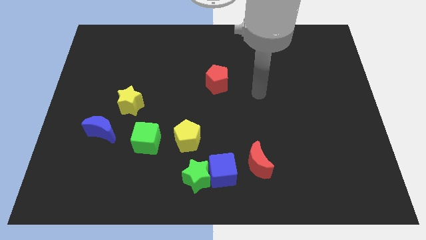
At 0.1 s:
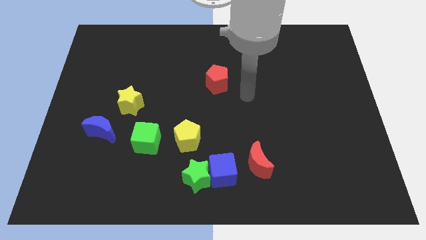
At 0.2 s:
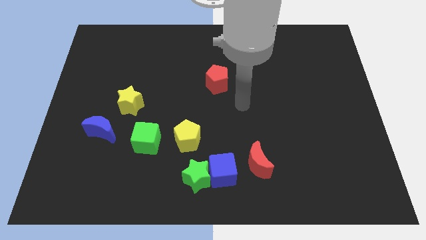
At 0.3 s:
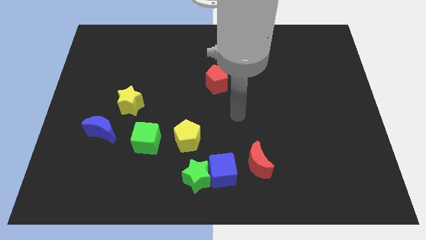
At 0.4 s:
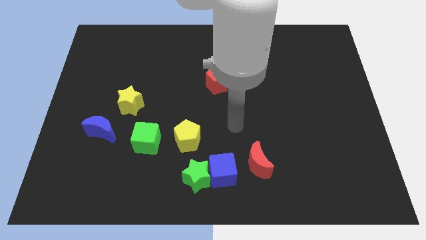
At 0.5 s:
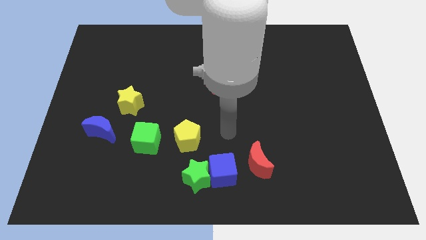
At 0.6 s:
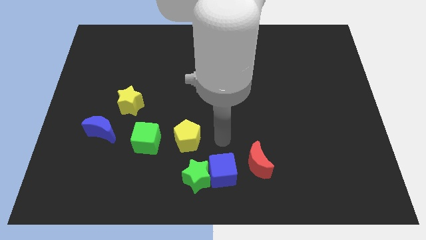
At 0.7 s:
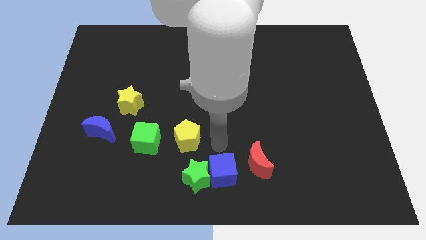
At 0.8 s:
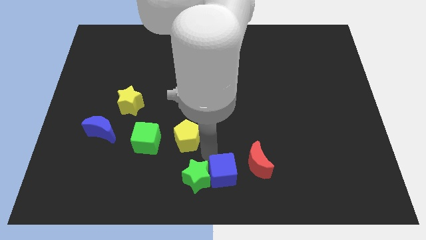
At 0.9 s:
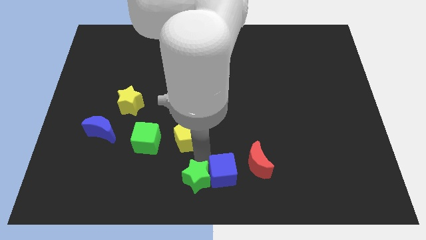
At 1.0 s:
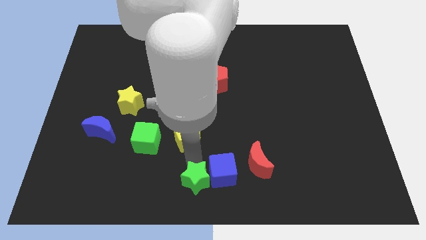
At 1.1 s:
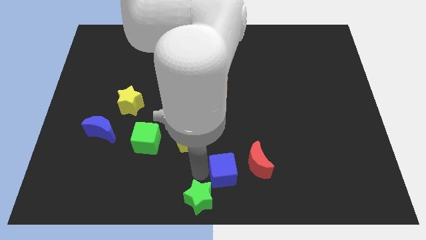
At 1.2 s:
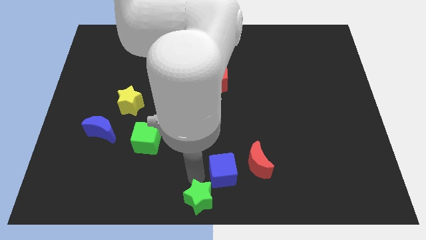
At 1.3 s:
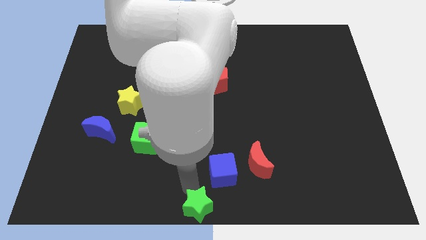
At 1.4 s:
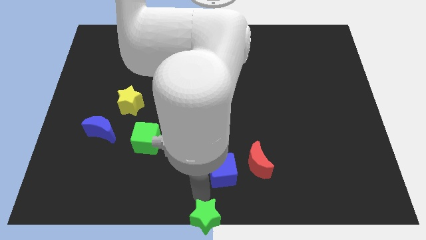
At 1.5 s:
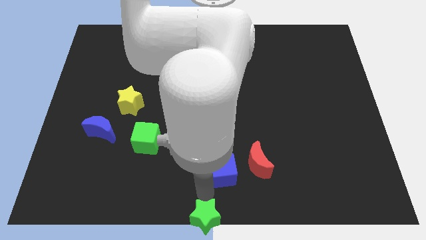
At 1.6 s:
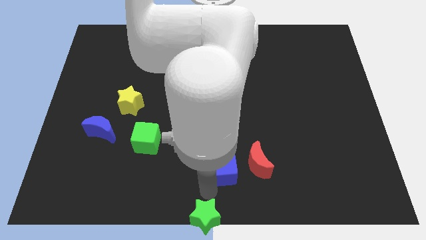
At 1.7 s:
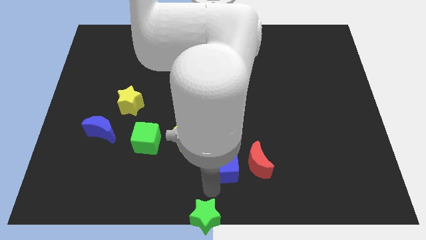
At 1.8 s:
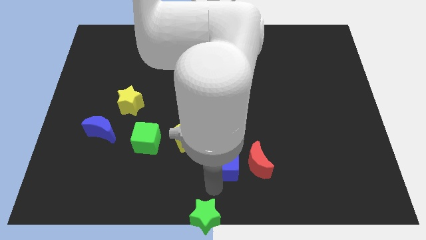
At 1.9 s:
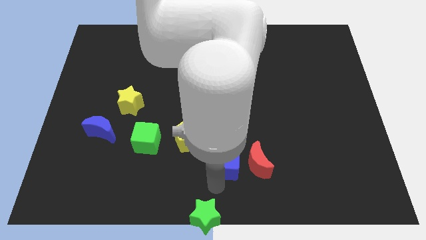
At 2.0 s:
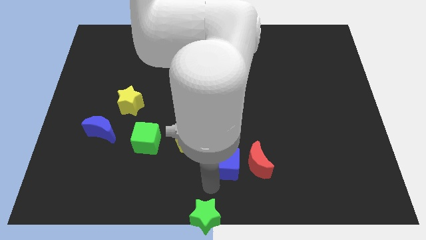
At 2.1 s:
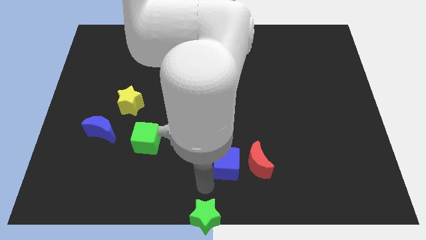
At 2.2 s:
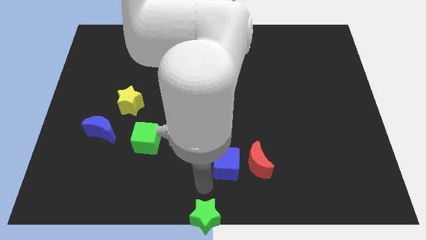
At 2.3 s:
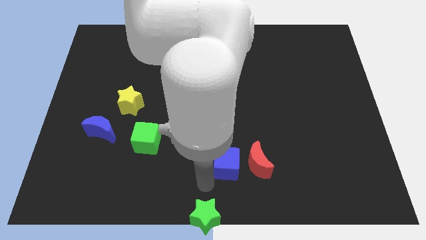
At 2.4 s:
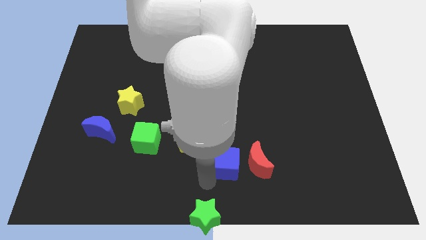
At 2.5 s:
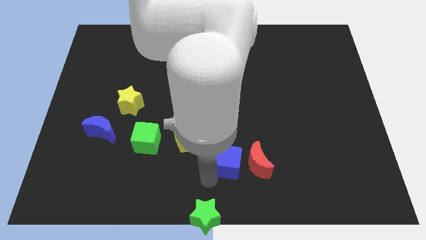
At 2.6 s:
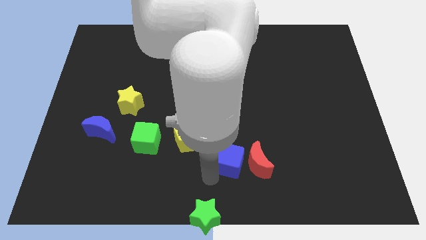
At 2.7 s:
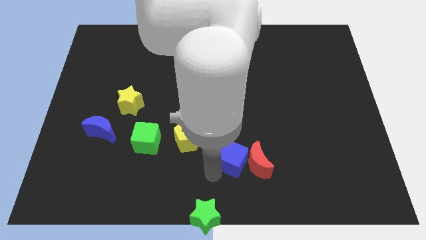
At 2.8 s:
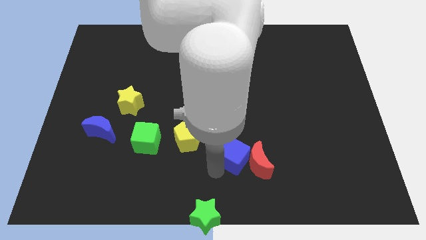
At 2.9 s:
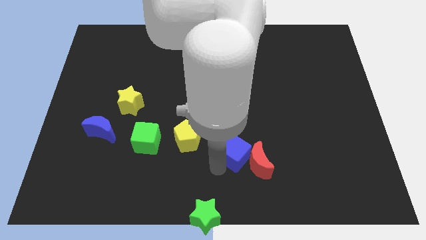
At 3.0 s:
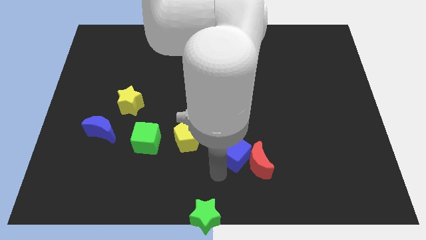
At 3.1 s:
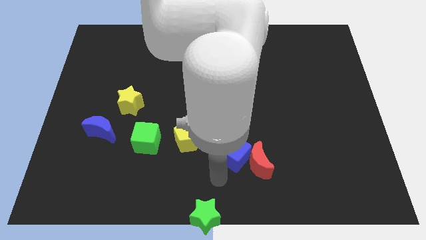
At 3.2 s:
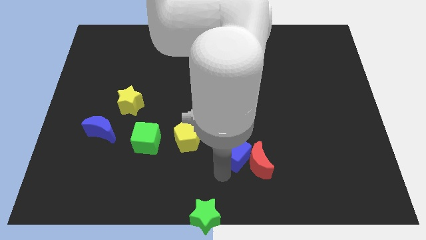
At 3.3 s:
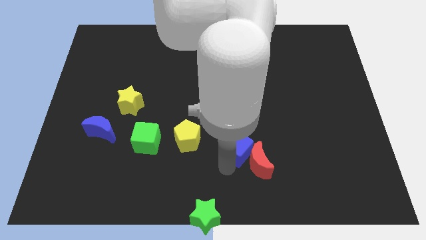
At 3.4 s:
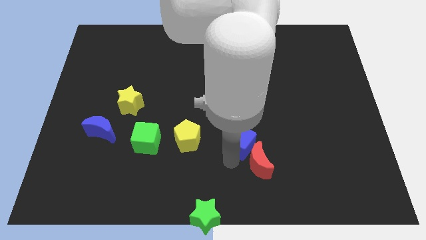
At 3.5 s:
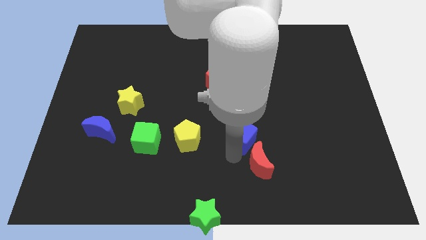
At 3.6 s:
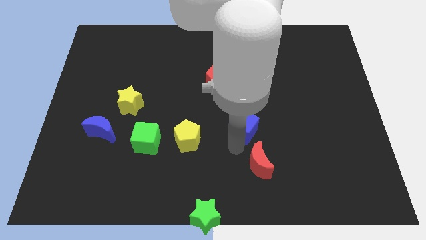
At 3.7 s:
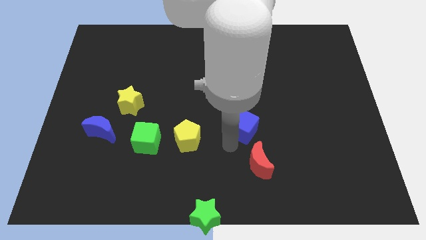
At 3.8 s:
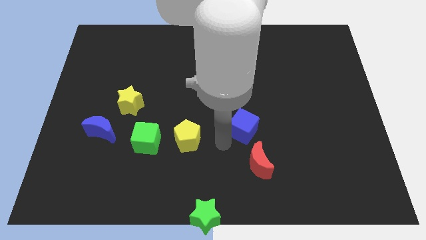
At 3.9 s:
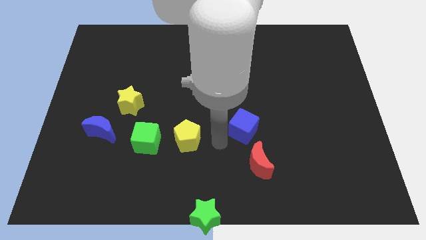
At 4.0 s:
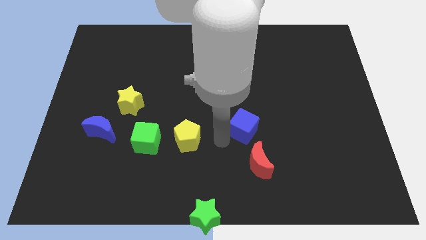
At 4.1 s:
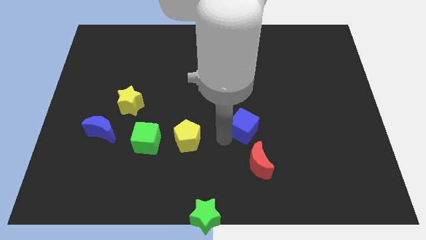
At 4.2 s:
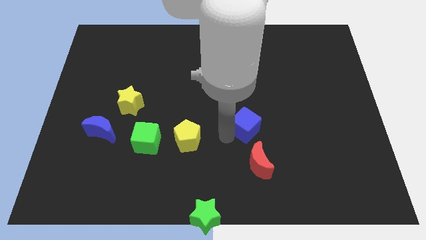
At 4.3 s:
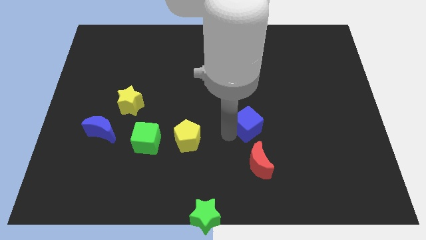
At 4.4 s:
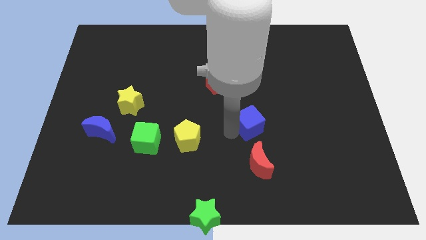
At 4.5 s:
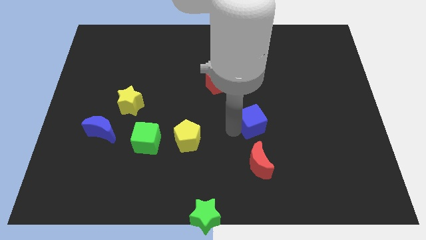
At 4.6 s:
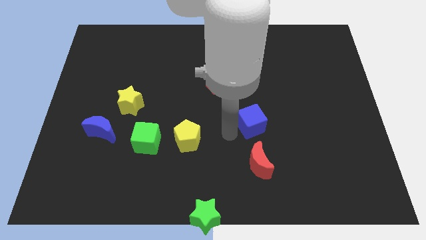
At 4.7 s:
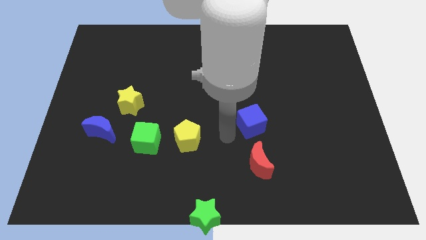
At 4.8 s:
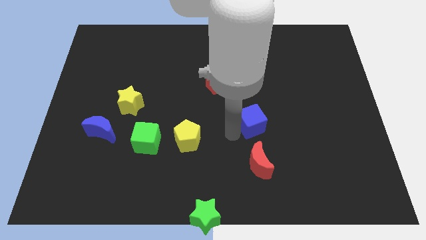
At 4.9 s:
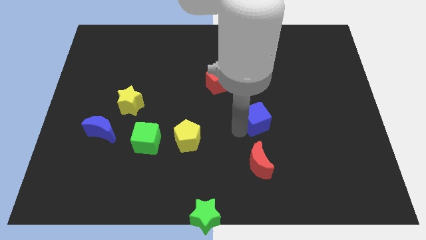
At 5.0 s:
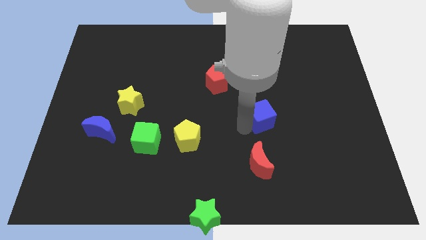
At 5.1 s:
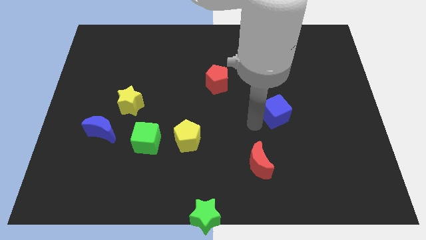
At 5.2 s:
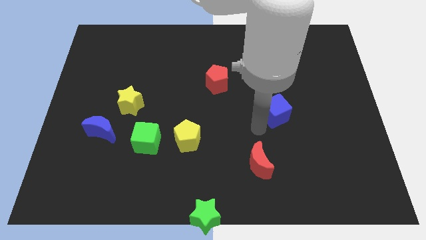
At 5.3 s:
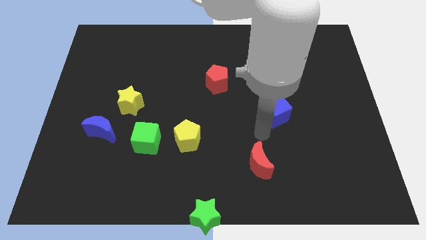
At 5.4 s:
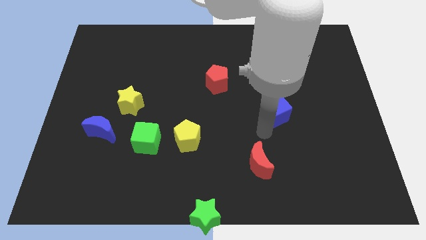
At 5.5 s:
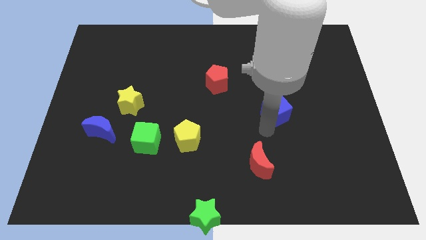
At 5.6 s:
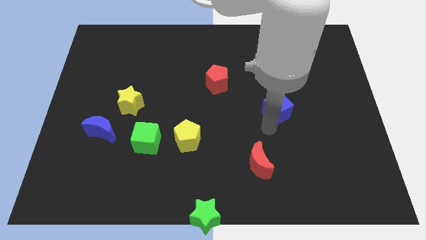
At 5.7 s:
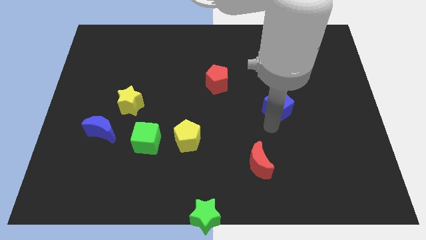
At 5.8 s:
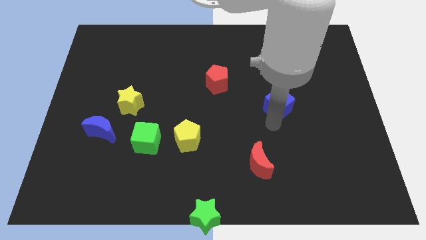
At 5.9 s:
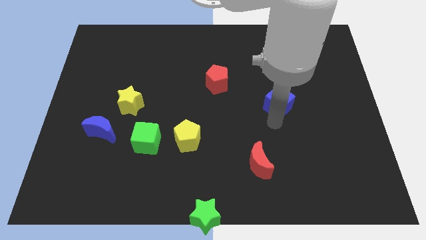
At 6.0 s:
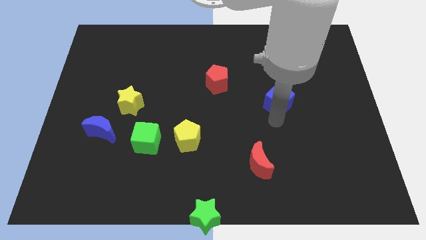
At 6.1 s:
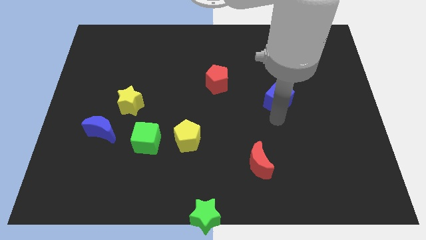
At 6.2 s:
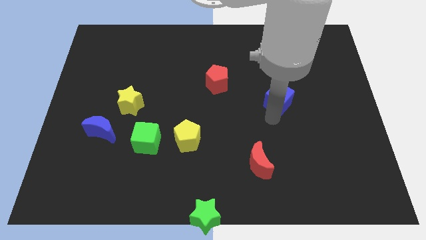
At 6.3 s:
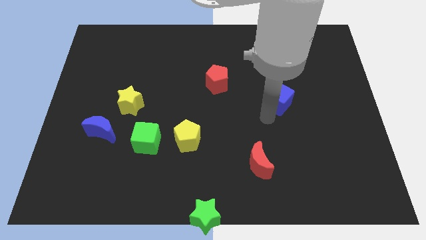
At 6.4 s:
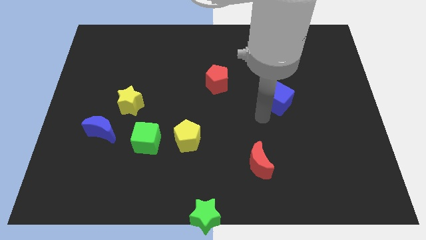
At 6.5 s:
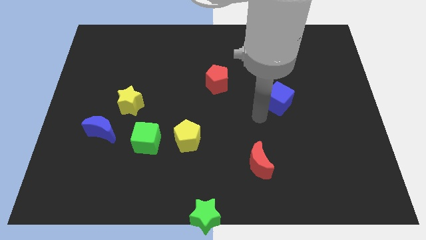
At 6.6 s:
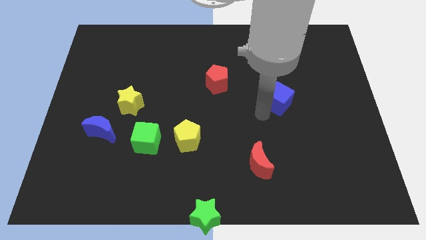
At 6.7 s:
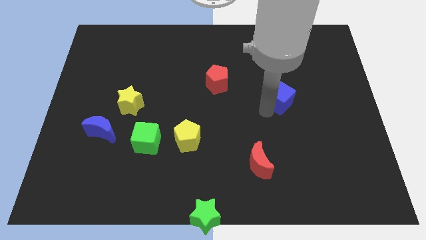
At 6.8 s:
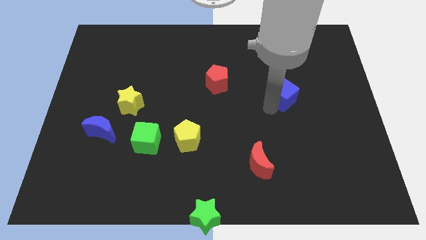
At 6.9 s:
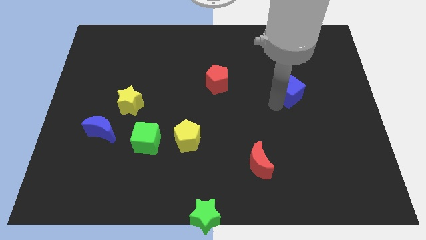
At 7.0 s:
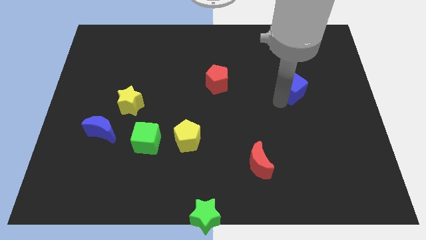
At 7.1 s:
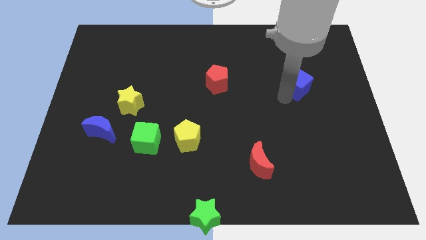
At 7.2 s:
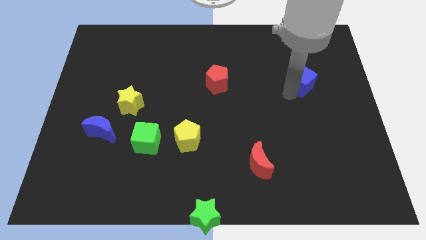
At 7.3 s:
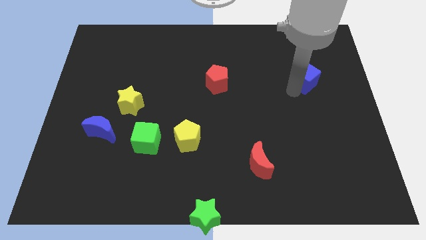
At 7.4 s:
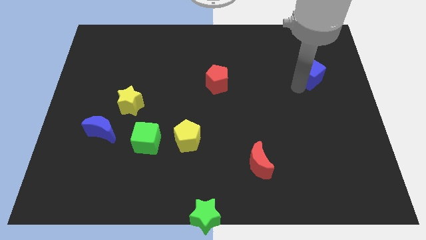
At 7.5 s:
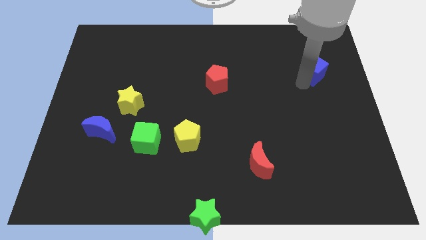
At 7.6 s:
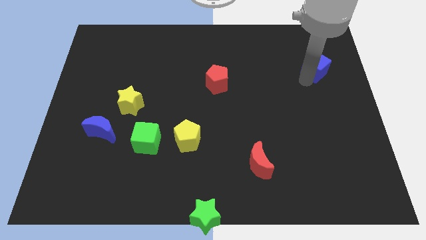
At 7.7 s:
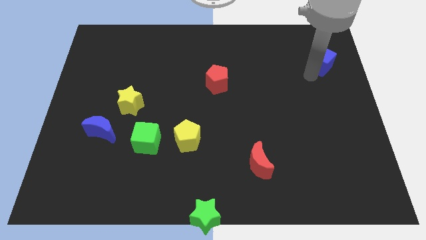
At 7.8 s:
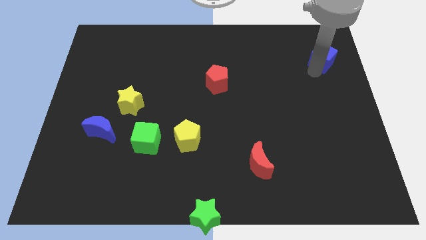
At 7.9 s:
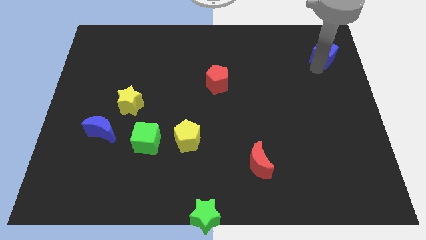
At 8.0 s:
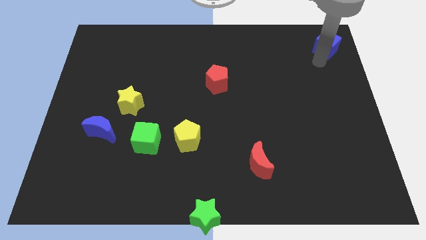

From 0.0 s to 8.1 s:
move the blue cube to the top right of the board
